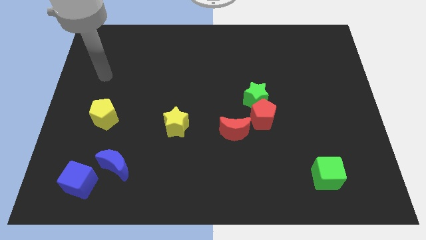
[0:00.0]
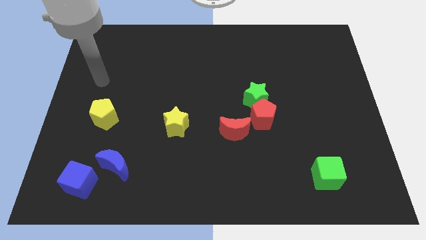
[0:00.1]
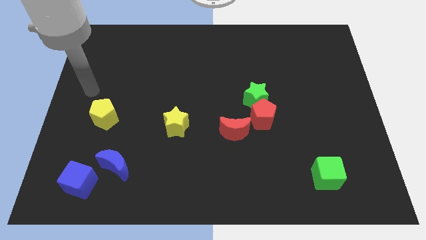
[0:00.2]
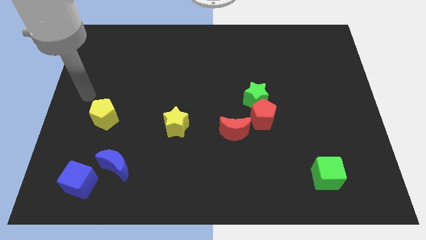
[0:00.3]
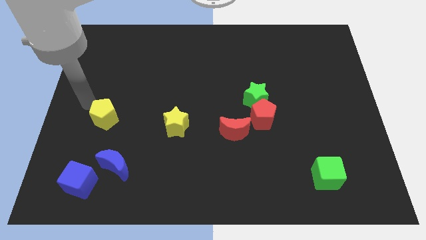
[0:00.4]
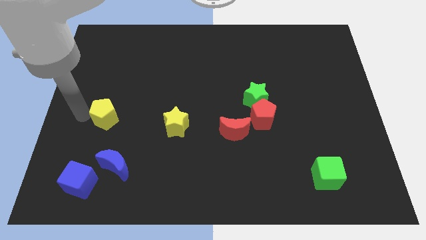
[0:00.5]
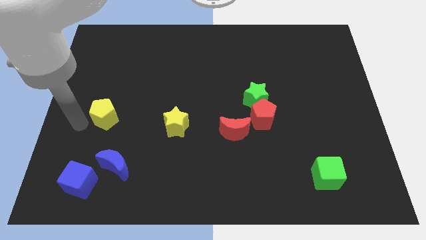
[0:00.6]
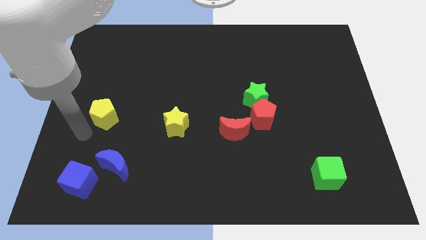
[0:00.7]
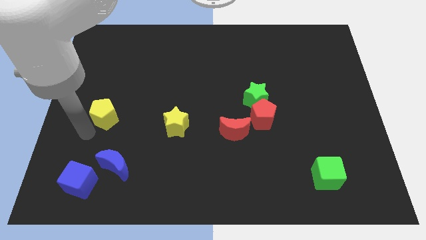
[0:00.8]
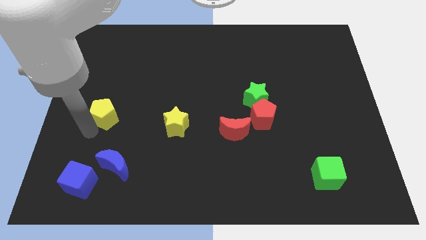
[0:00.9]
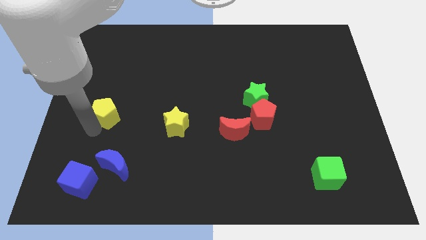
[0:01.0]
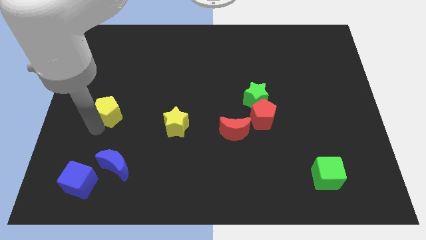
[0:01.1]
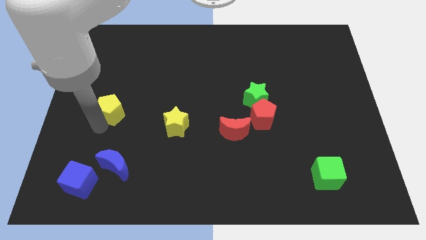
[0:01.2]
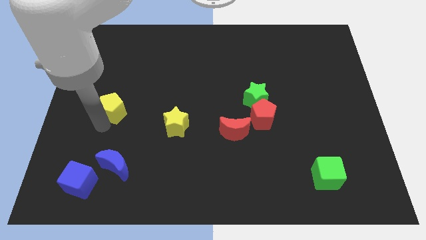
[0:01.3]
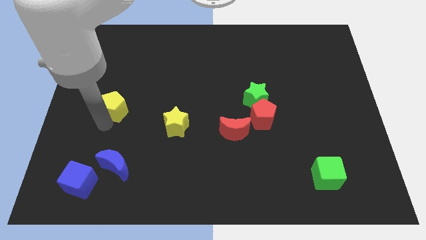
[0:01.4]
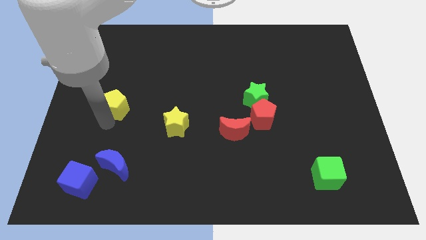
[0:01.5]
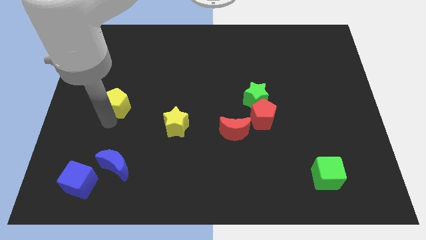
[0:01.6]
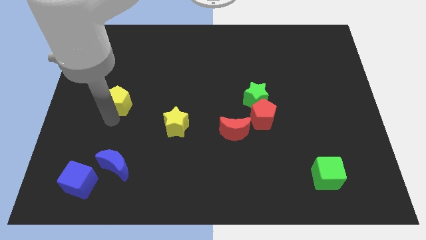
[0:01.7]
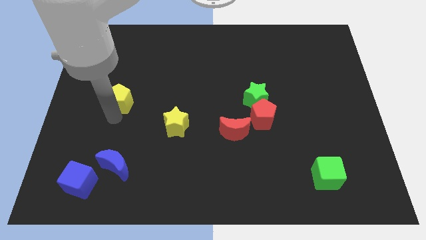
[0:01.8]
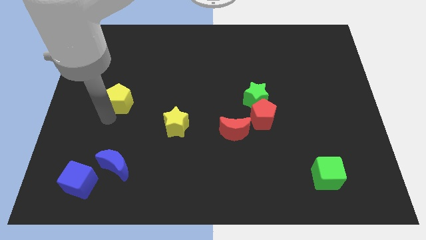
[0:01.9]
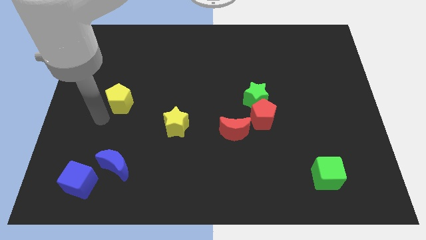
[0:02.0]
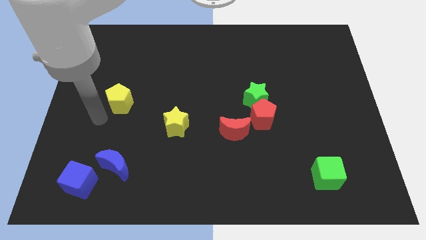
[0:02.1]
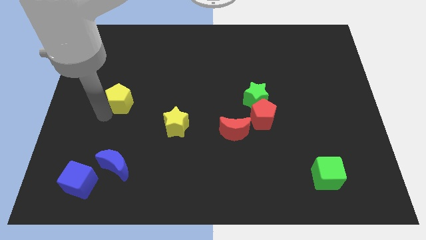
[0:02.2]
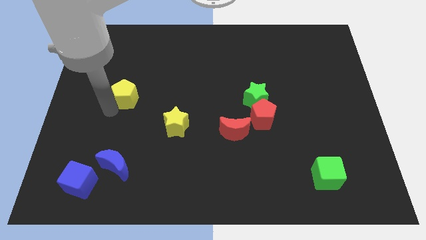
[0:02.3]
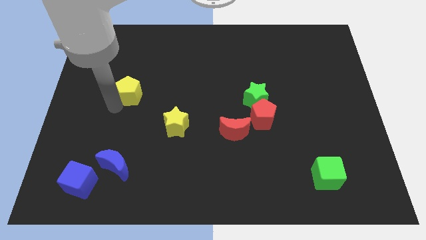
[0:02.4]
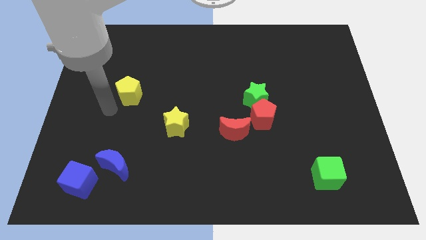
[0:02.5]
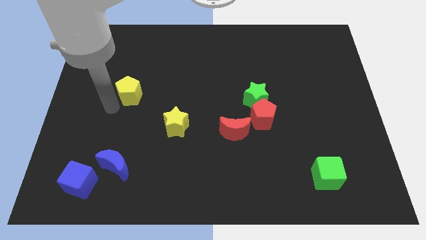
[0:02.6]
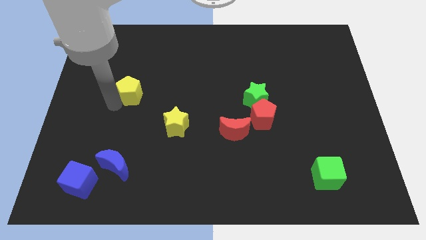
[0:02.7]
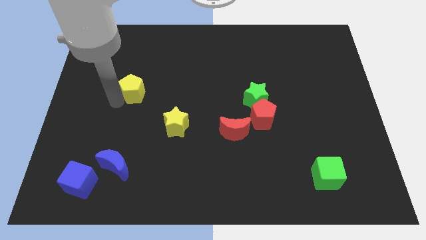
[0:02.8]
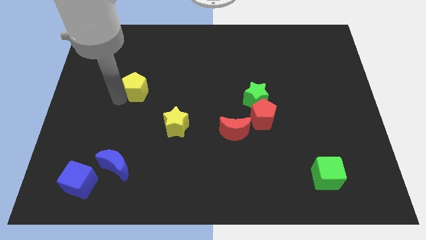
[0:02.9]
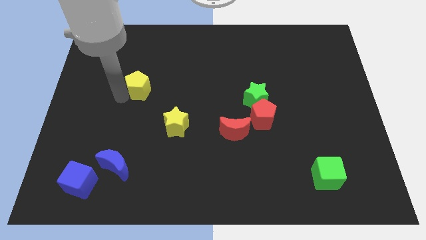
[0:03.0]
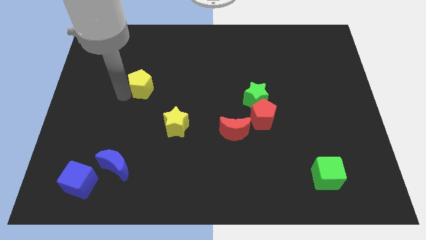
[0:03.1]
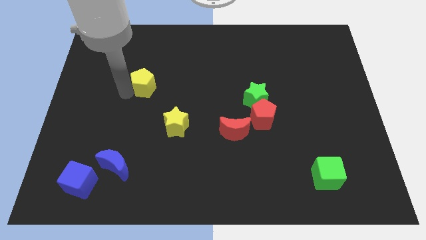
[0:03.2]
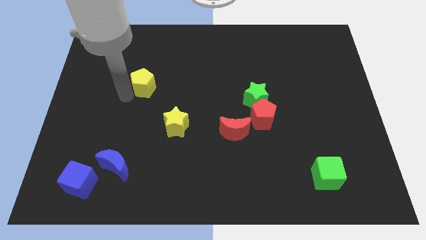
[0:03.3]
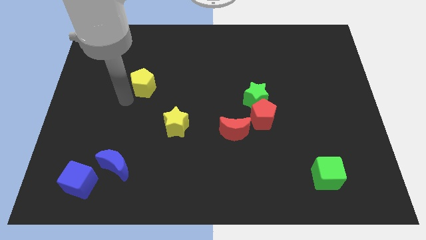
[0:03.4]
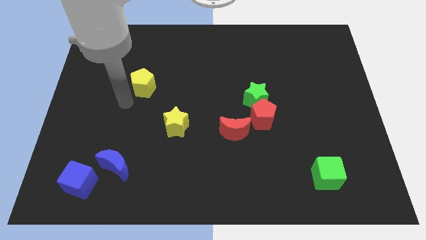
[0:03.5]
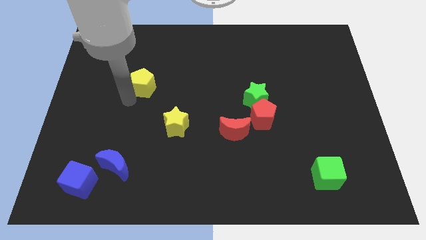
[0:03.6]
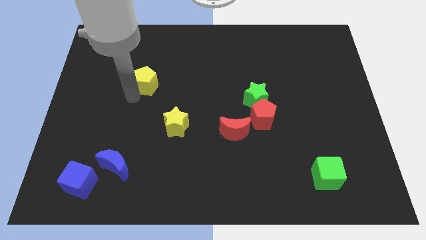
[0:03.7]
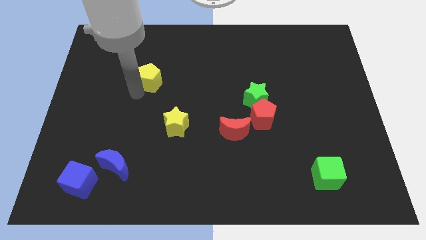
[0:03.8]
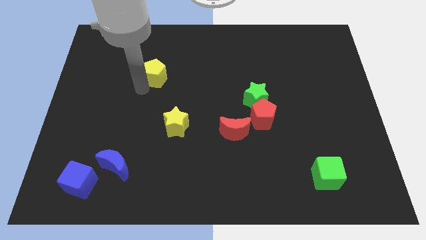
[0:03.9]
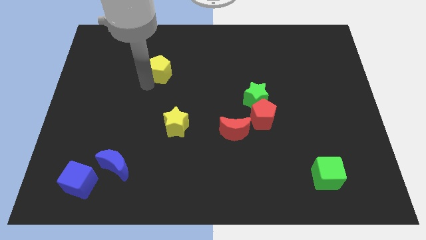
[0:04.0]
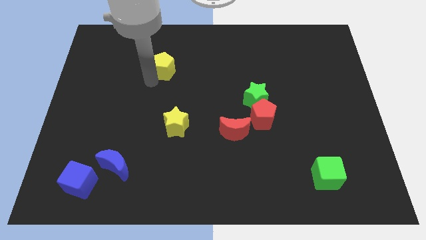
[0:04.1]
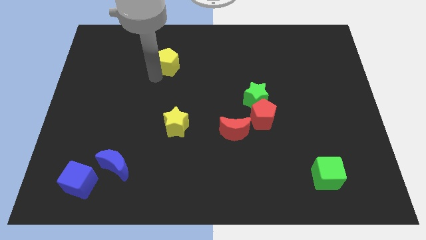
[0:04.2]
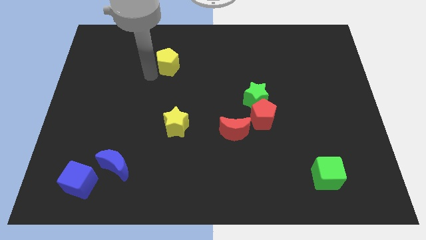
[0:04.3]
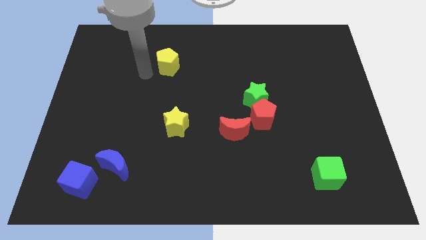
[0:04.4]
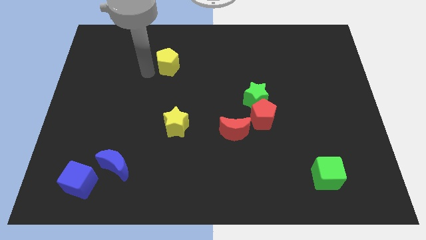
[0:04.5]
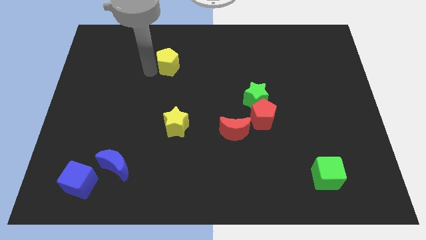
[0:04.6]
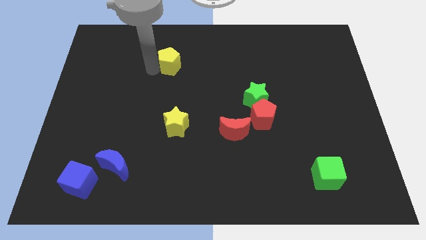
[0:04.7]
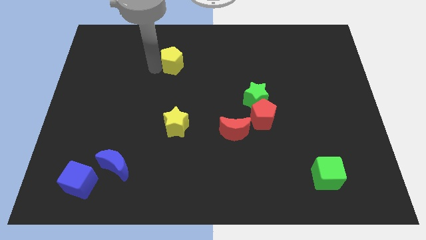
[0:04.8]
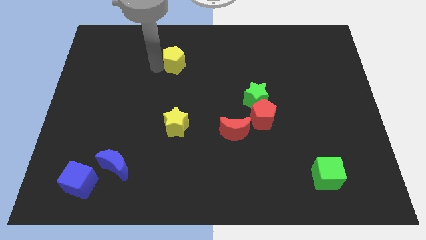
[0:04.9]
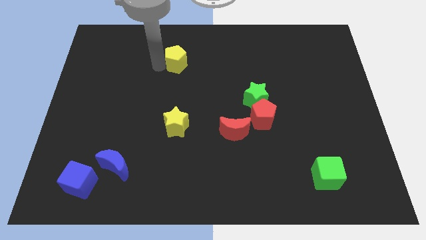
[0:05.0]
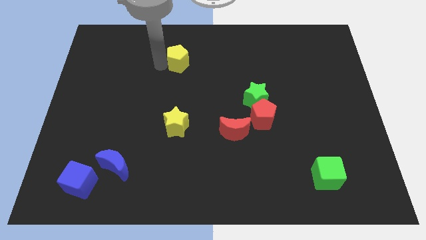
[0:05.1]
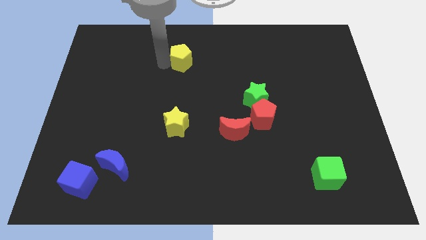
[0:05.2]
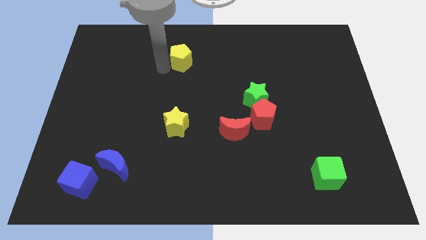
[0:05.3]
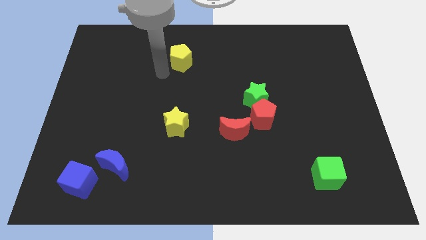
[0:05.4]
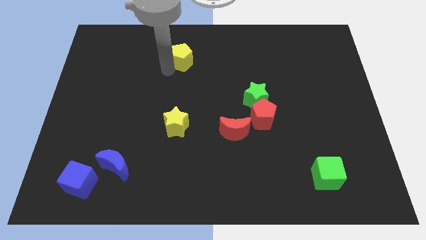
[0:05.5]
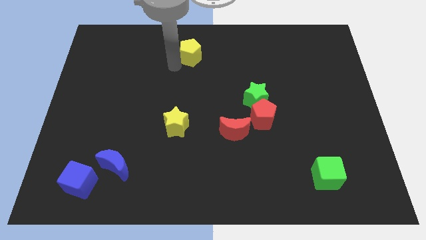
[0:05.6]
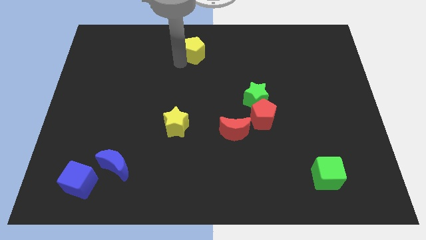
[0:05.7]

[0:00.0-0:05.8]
put the yellow pentagon to the towards your base

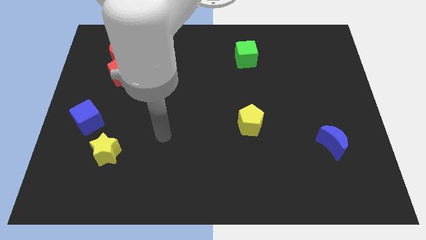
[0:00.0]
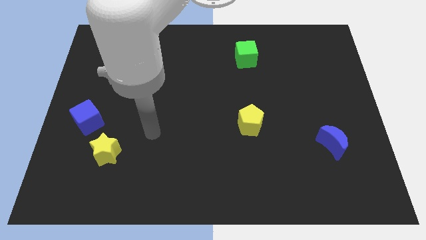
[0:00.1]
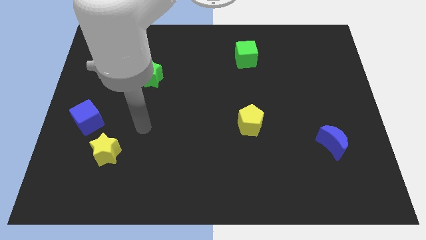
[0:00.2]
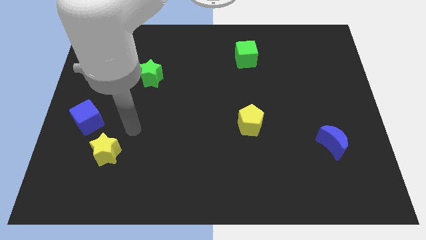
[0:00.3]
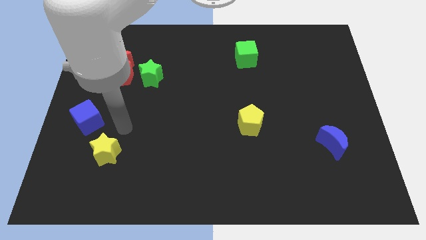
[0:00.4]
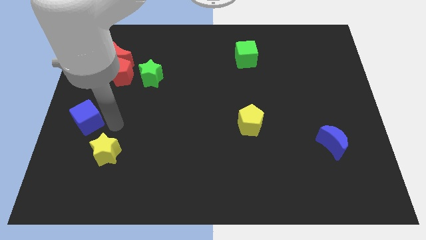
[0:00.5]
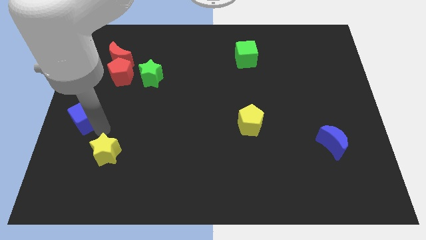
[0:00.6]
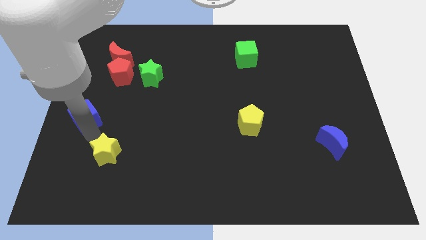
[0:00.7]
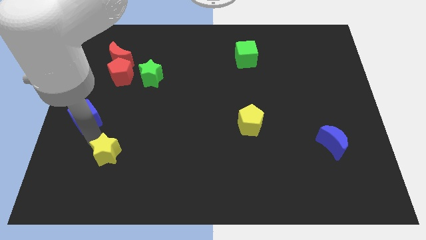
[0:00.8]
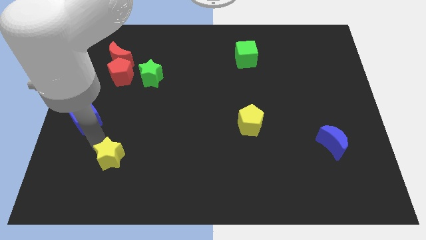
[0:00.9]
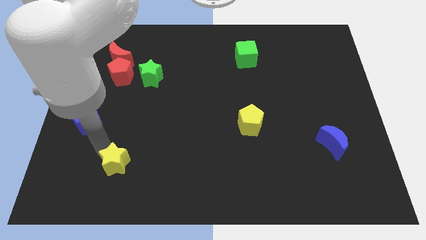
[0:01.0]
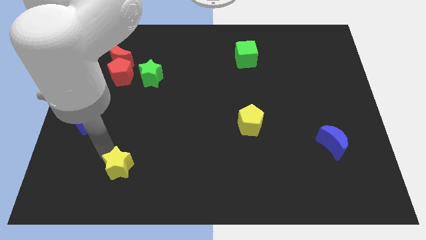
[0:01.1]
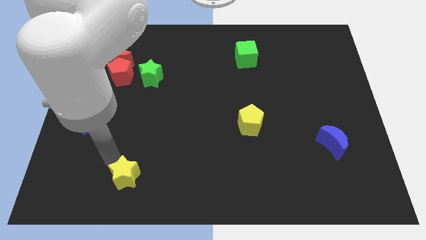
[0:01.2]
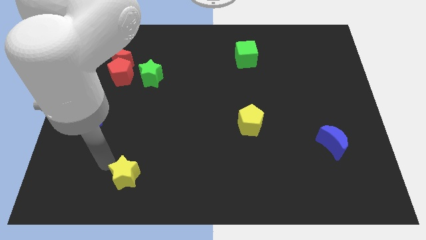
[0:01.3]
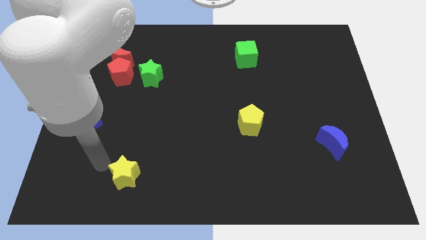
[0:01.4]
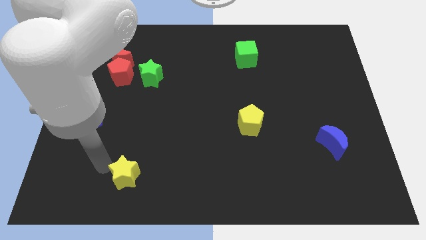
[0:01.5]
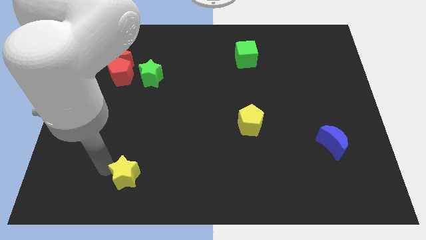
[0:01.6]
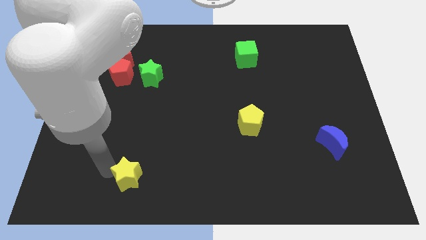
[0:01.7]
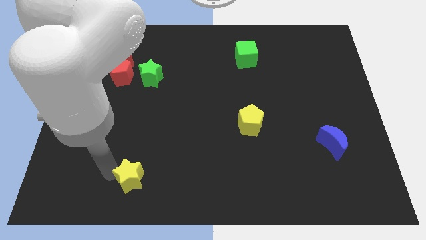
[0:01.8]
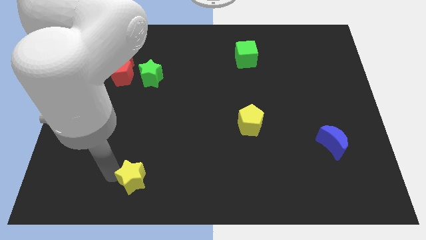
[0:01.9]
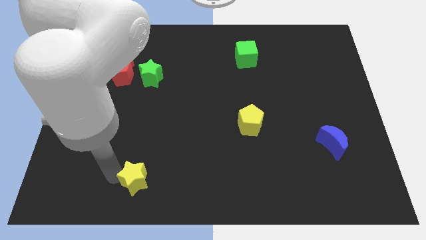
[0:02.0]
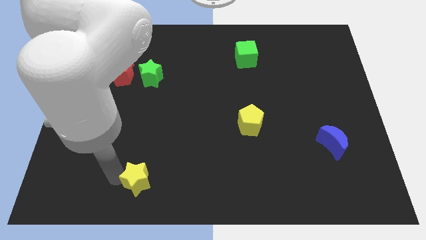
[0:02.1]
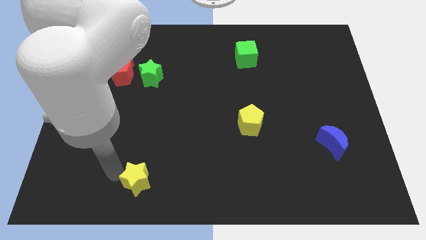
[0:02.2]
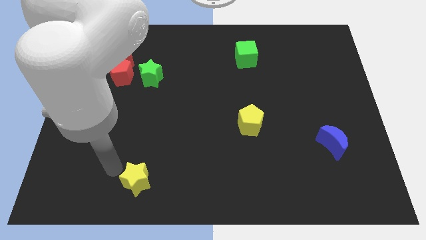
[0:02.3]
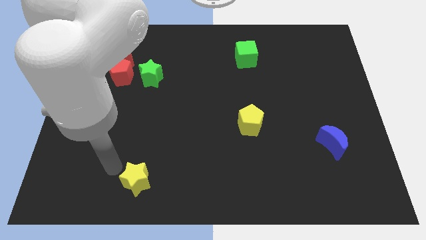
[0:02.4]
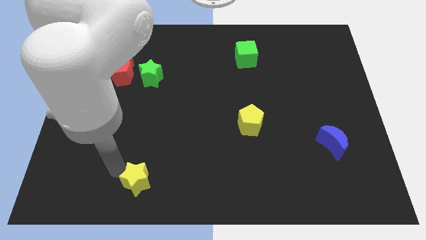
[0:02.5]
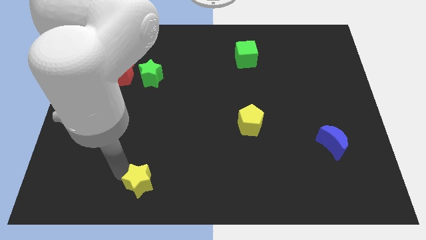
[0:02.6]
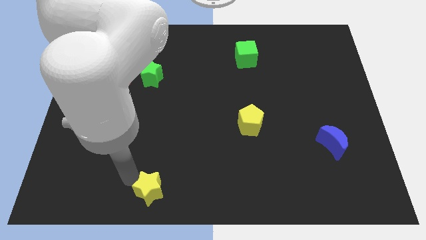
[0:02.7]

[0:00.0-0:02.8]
slide the yellow star to the bottom side
